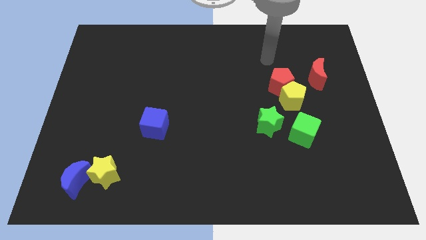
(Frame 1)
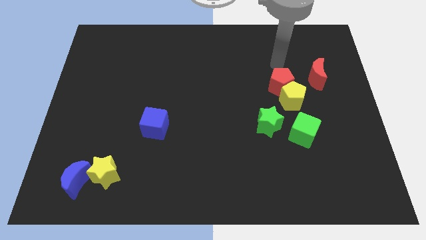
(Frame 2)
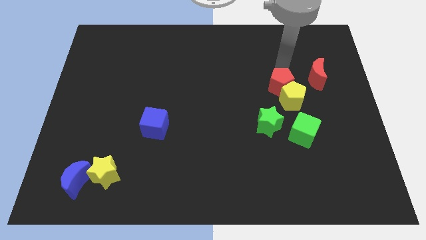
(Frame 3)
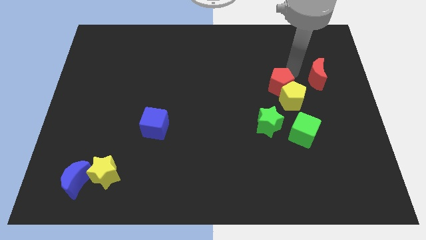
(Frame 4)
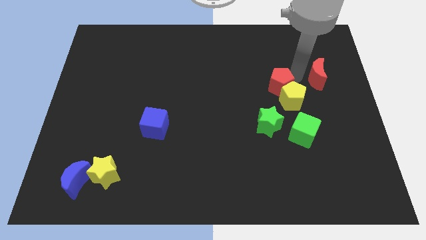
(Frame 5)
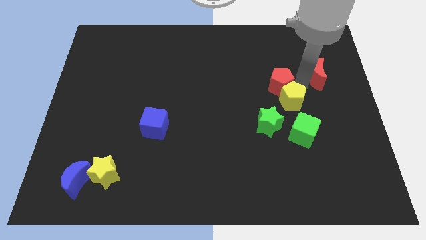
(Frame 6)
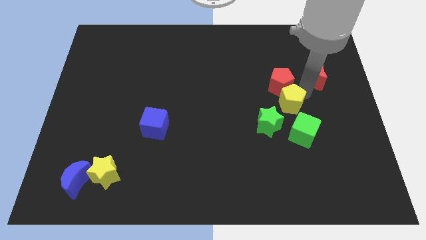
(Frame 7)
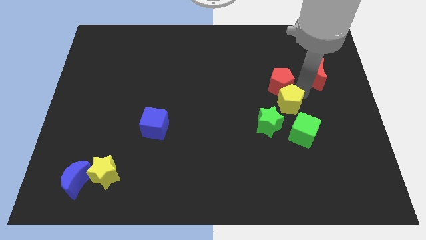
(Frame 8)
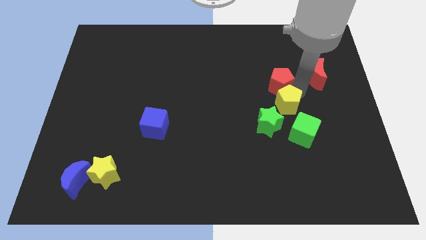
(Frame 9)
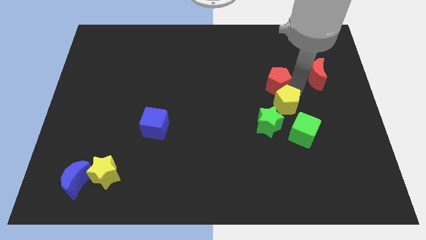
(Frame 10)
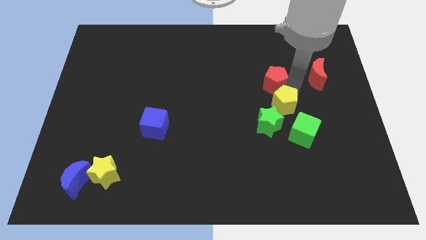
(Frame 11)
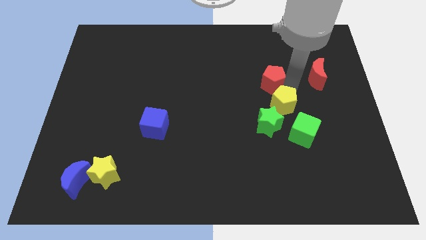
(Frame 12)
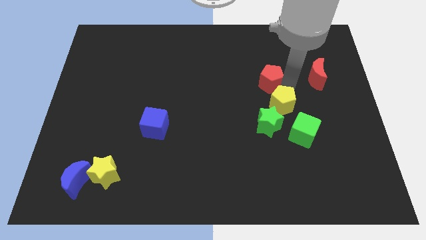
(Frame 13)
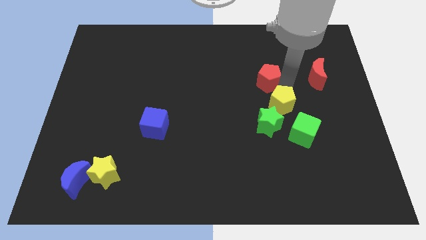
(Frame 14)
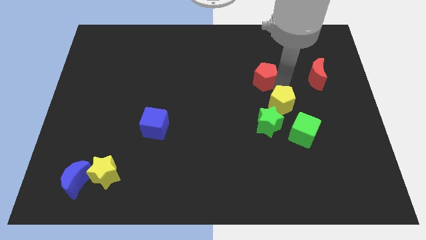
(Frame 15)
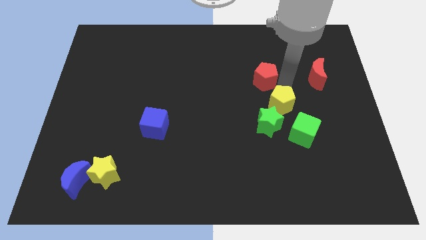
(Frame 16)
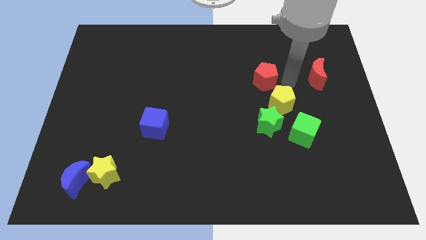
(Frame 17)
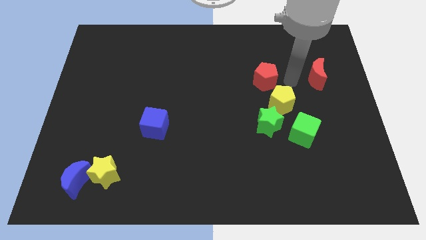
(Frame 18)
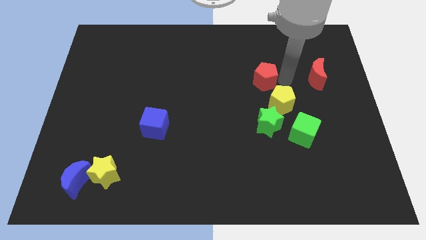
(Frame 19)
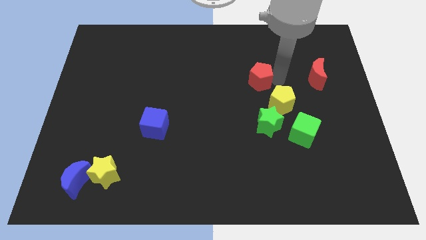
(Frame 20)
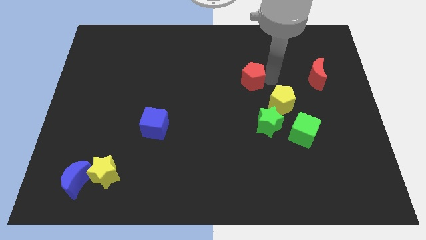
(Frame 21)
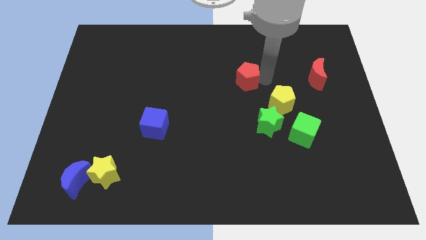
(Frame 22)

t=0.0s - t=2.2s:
move the red pentagon left a bit

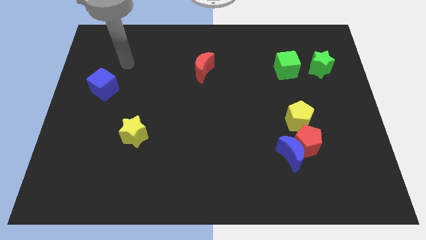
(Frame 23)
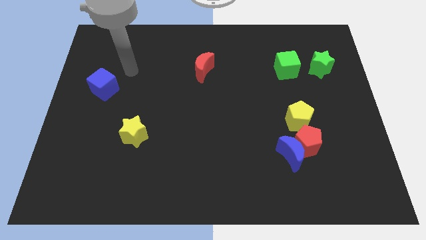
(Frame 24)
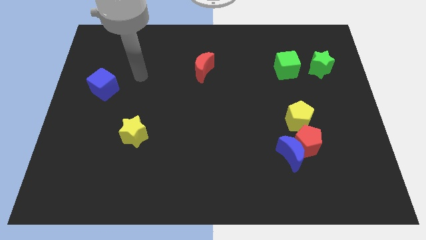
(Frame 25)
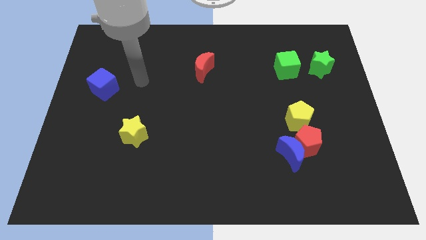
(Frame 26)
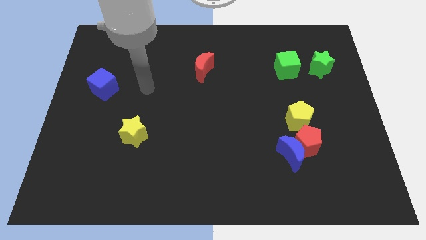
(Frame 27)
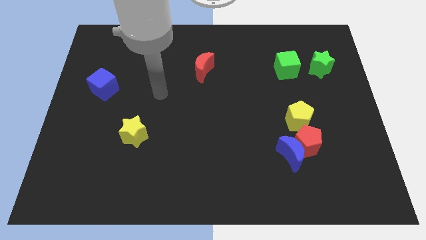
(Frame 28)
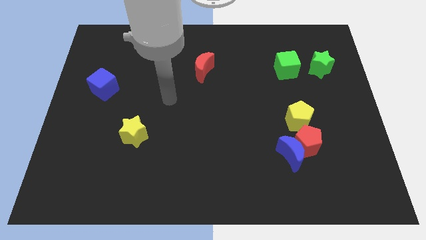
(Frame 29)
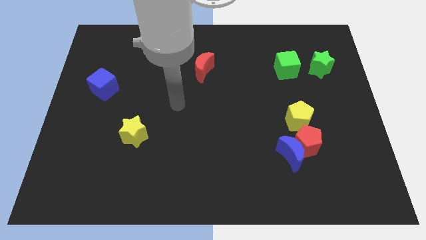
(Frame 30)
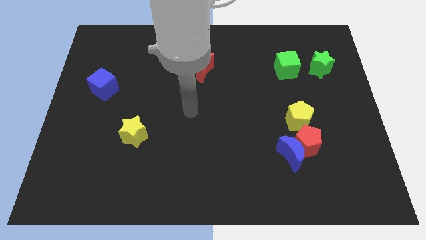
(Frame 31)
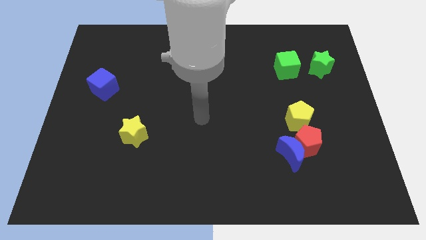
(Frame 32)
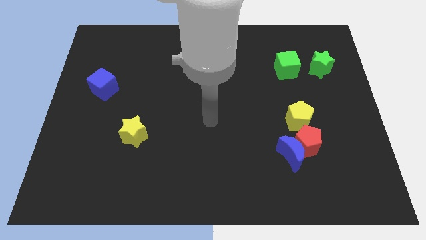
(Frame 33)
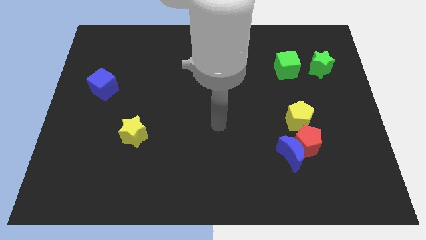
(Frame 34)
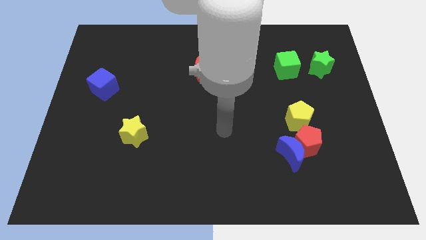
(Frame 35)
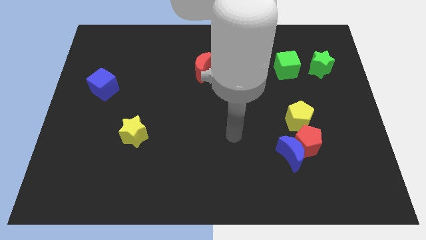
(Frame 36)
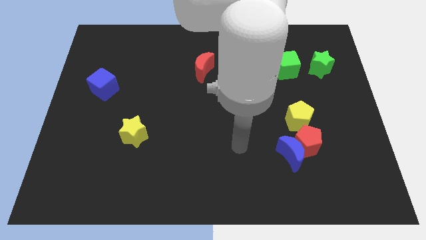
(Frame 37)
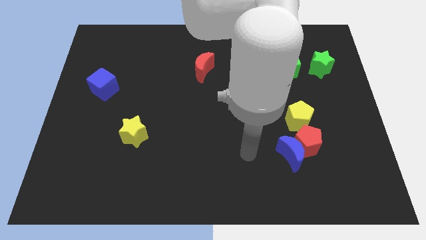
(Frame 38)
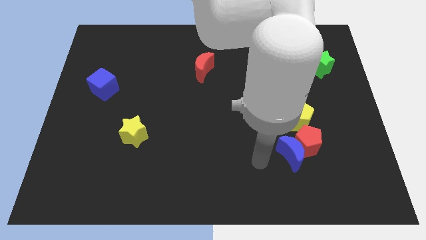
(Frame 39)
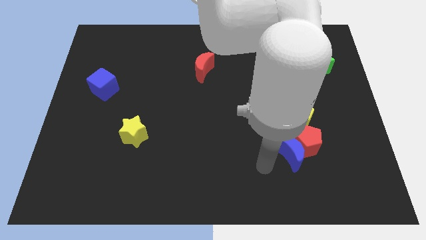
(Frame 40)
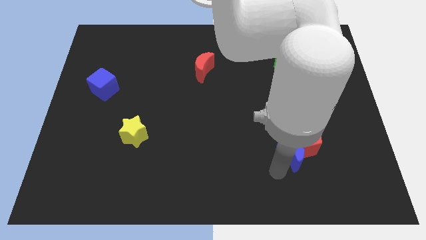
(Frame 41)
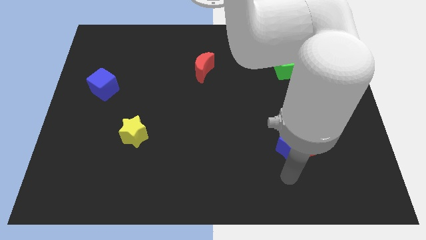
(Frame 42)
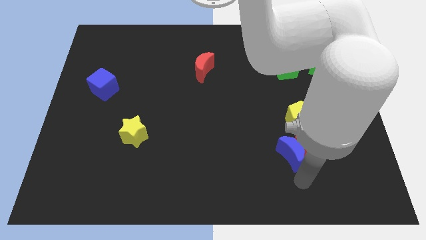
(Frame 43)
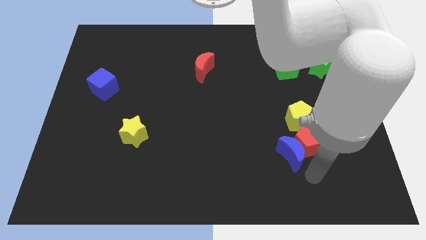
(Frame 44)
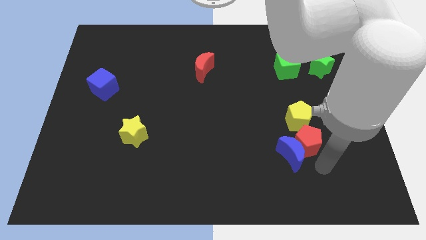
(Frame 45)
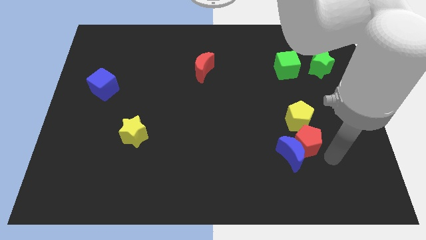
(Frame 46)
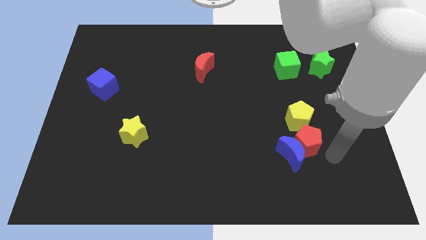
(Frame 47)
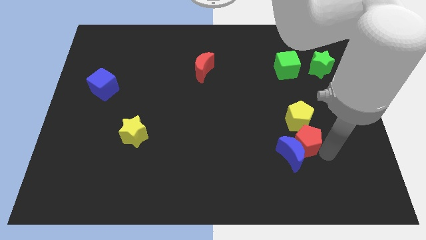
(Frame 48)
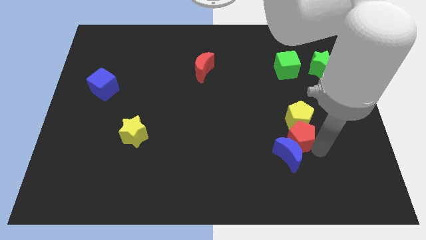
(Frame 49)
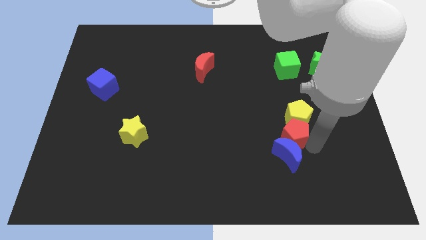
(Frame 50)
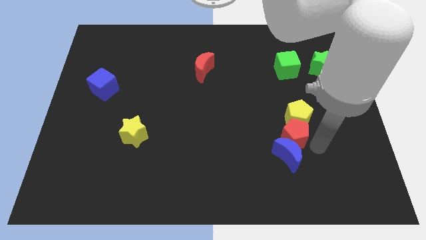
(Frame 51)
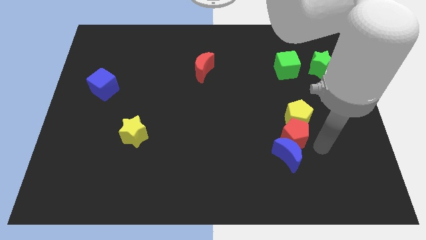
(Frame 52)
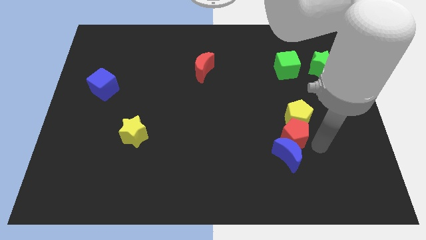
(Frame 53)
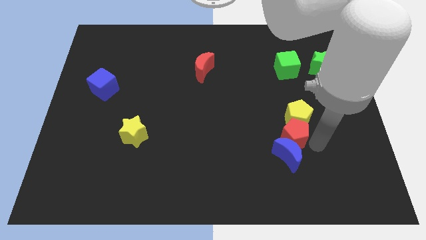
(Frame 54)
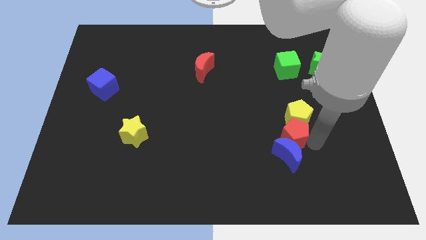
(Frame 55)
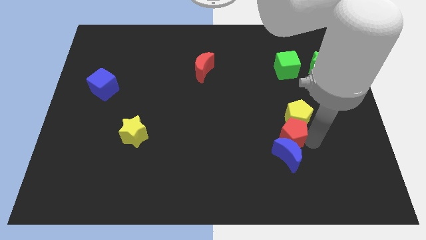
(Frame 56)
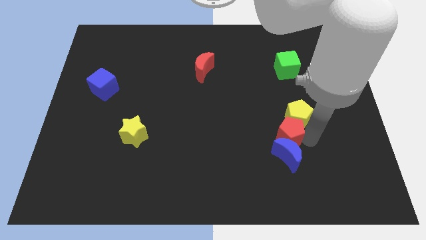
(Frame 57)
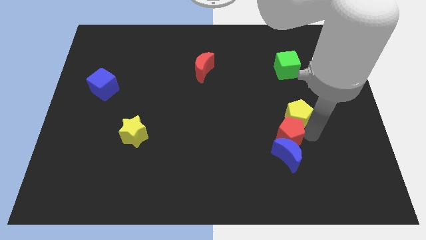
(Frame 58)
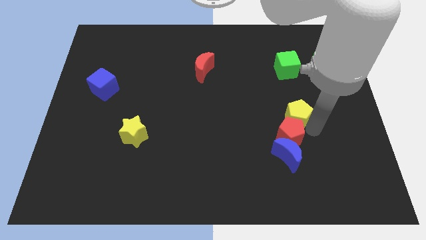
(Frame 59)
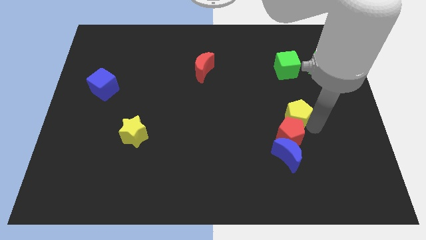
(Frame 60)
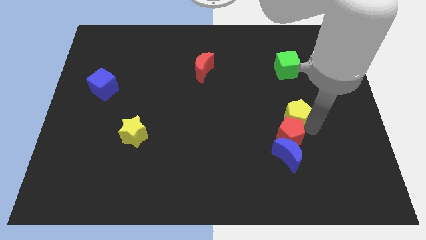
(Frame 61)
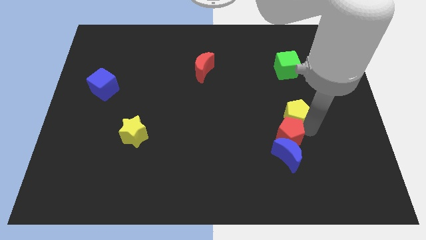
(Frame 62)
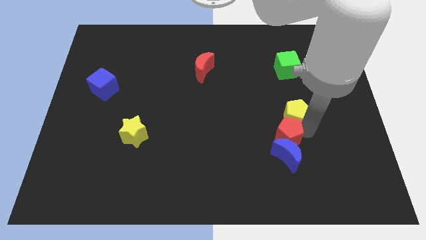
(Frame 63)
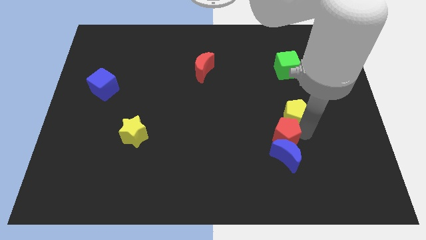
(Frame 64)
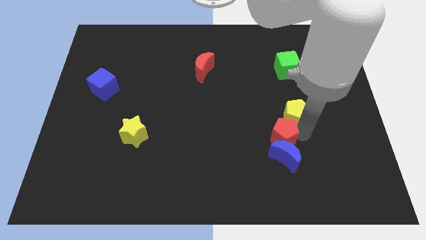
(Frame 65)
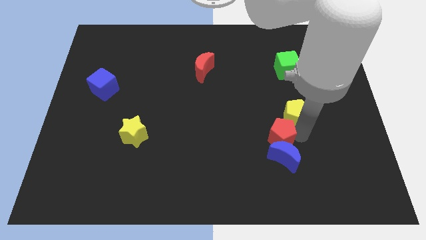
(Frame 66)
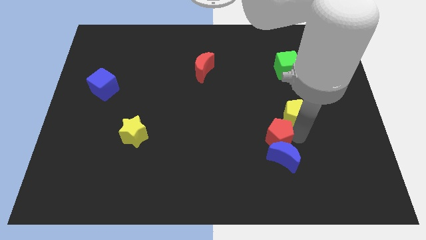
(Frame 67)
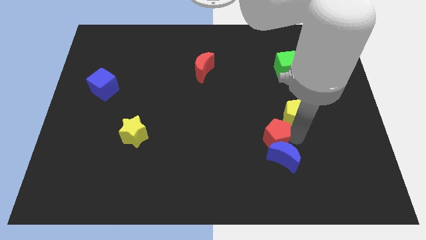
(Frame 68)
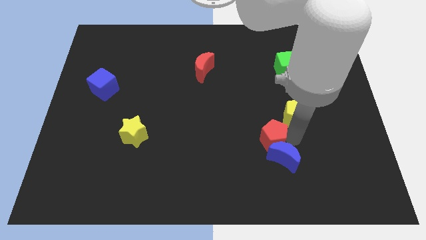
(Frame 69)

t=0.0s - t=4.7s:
slightly move the red pentagon left

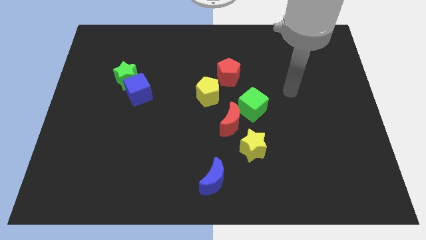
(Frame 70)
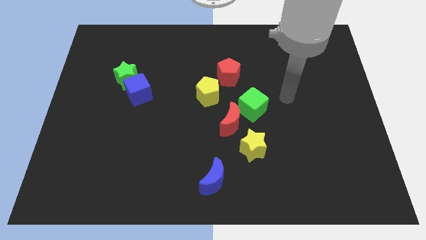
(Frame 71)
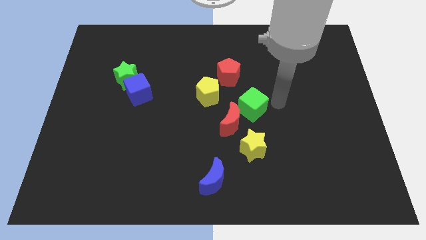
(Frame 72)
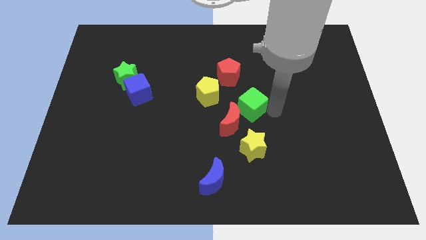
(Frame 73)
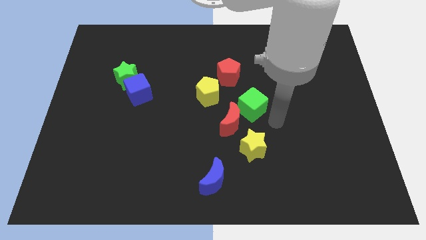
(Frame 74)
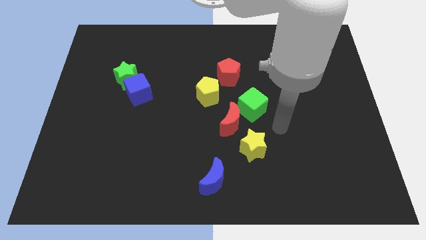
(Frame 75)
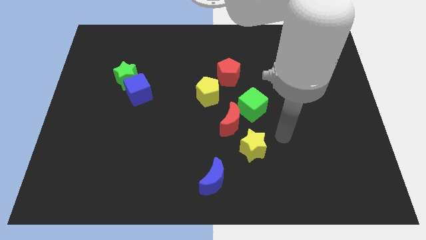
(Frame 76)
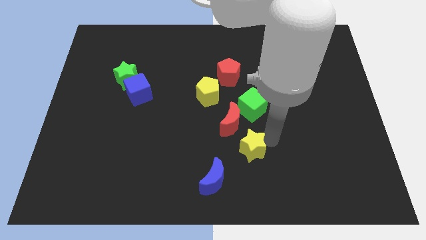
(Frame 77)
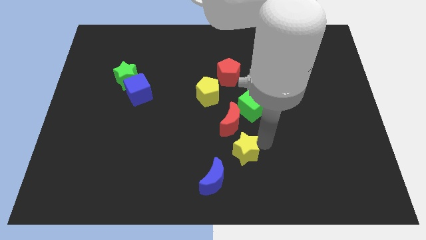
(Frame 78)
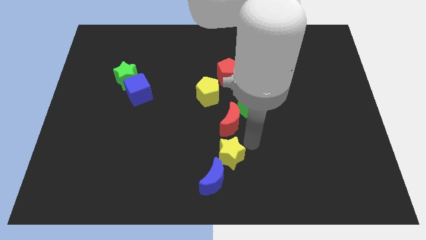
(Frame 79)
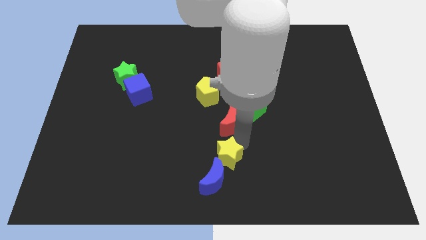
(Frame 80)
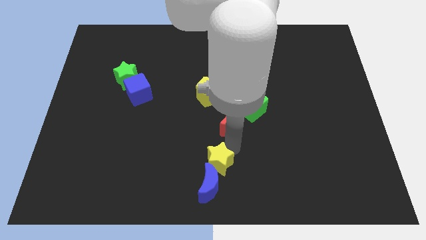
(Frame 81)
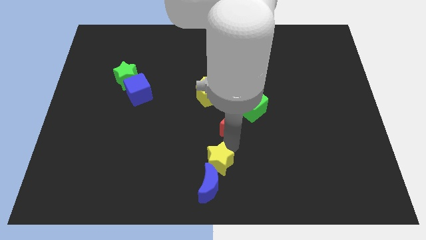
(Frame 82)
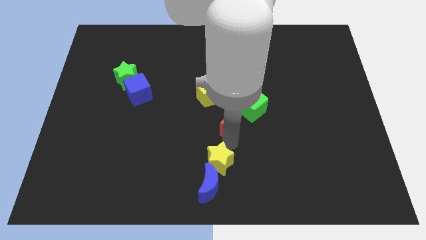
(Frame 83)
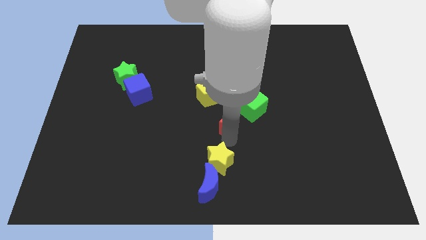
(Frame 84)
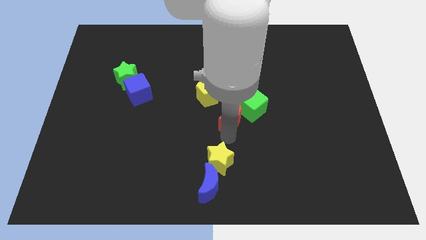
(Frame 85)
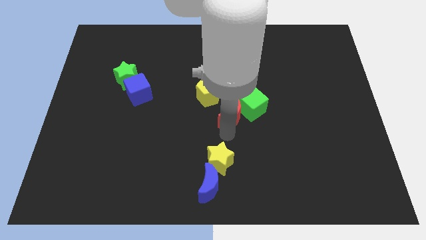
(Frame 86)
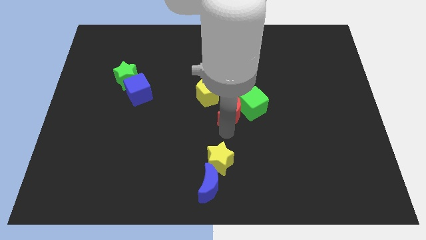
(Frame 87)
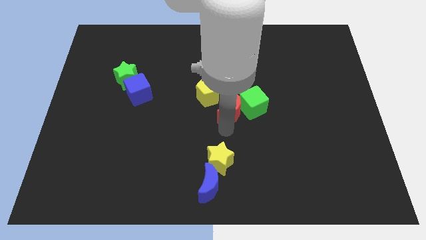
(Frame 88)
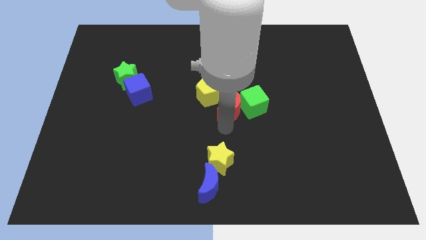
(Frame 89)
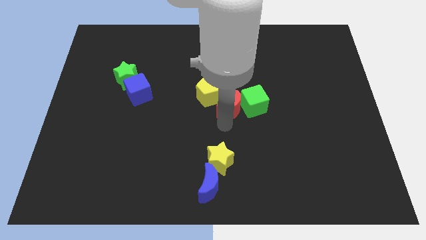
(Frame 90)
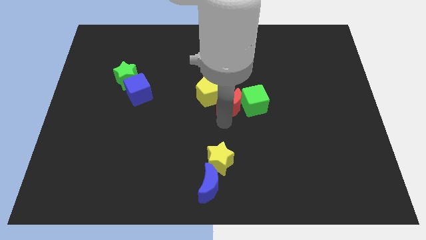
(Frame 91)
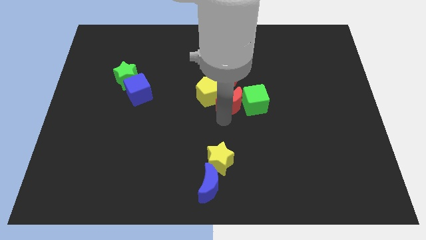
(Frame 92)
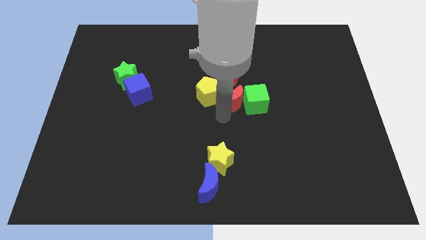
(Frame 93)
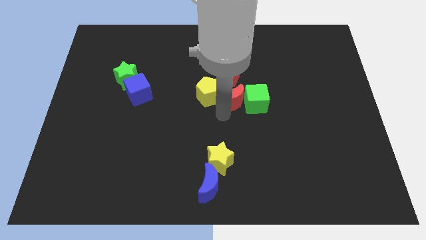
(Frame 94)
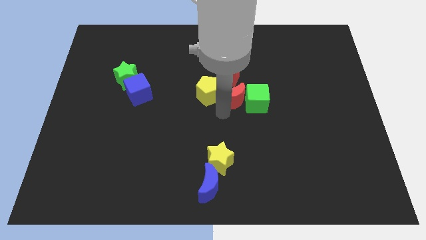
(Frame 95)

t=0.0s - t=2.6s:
push the red moon a bit up
